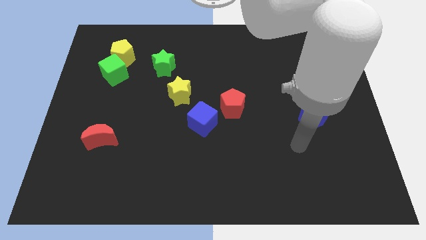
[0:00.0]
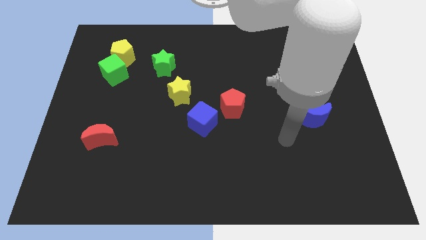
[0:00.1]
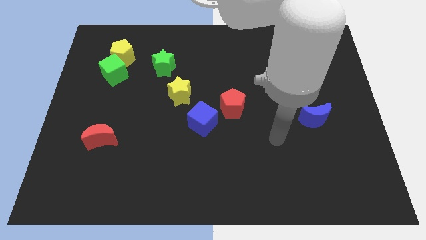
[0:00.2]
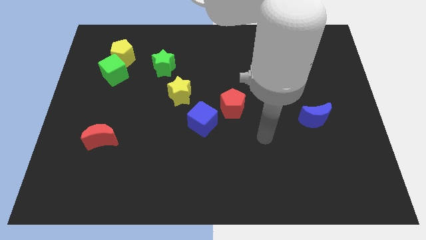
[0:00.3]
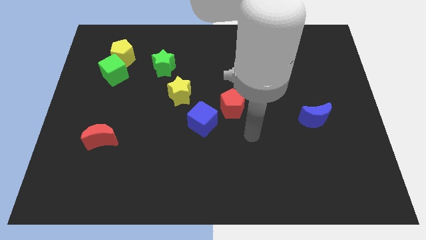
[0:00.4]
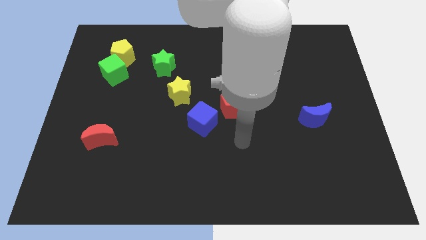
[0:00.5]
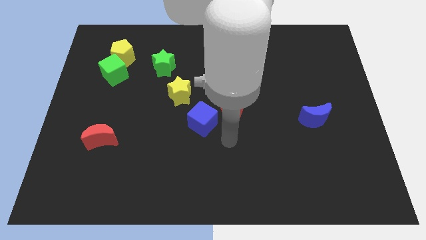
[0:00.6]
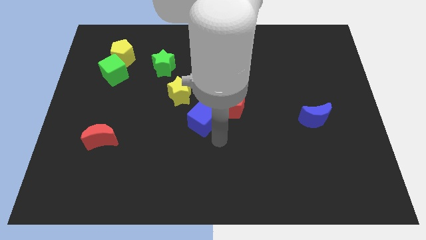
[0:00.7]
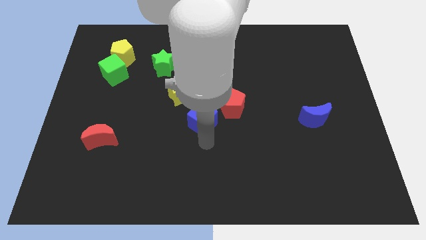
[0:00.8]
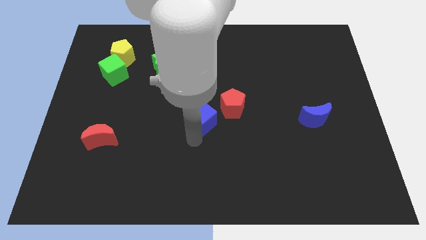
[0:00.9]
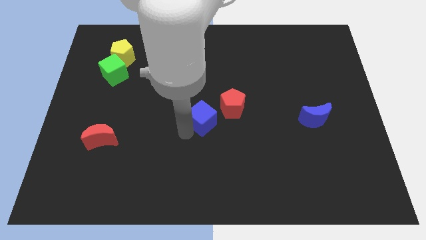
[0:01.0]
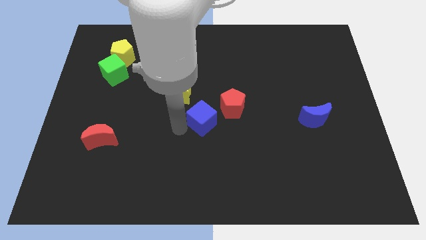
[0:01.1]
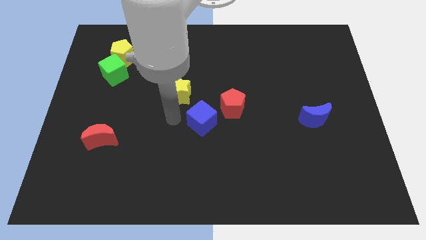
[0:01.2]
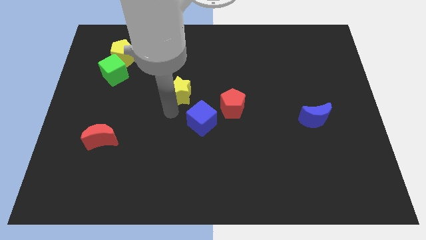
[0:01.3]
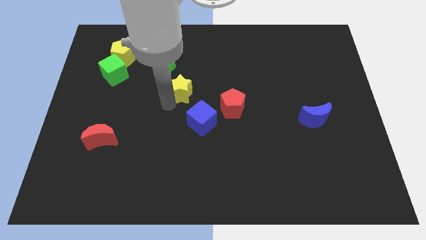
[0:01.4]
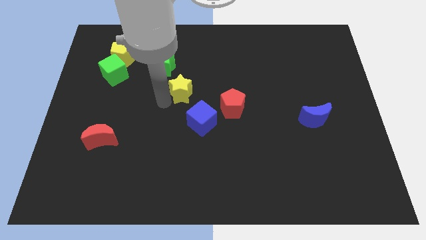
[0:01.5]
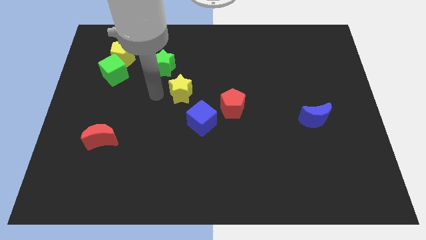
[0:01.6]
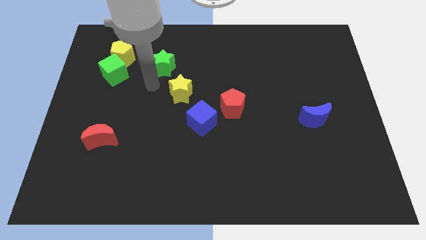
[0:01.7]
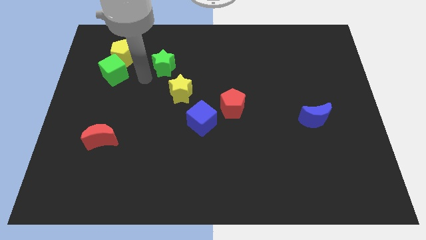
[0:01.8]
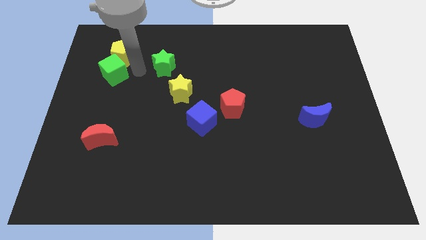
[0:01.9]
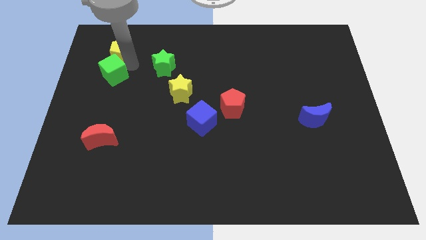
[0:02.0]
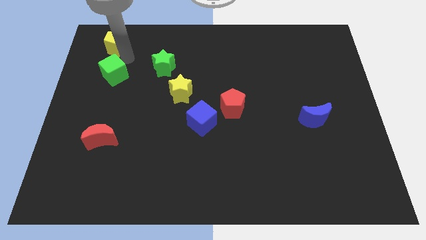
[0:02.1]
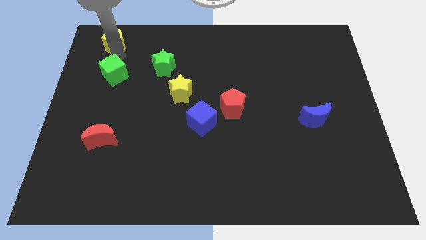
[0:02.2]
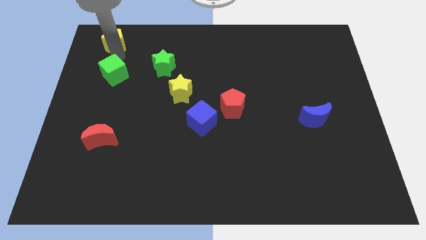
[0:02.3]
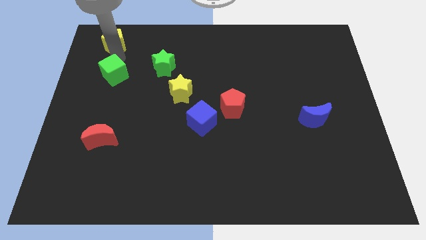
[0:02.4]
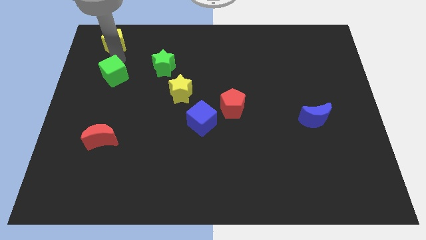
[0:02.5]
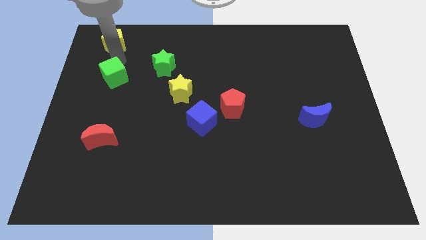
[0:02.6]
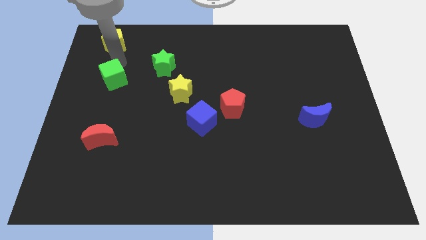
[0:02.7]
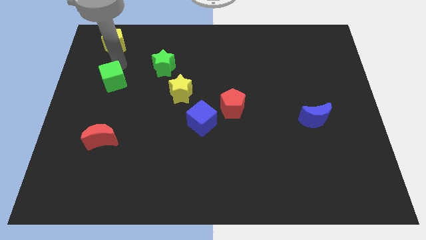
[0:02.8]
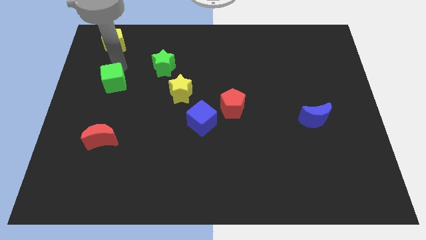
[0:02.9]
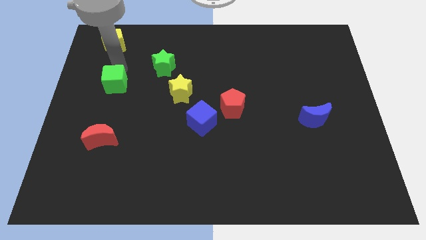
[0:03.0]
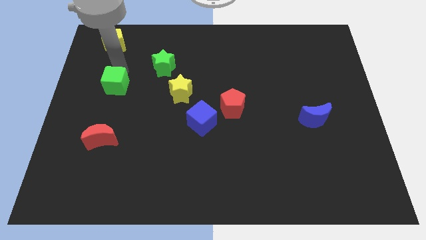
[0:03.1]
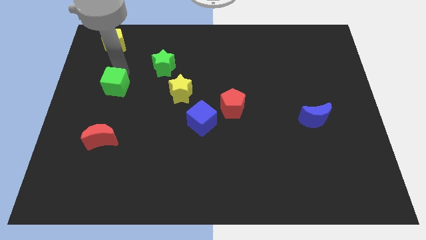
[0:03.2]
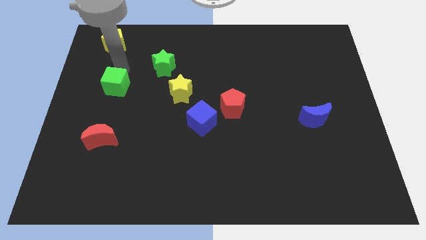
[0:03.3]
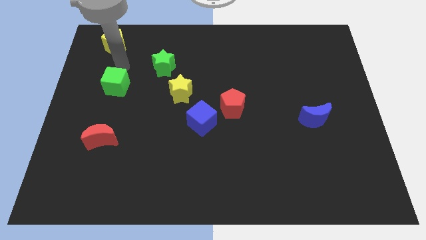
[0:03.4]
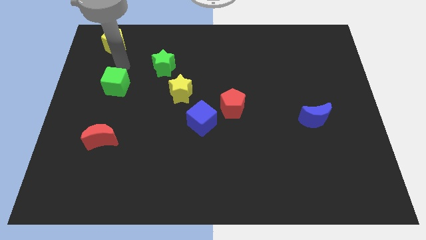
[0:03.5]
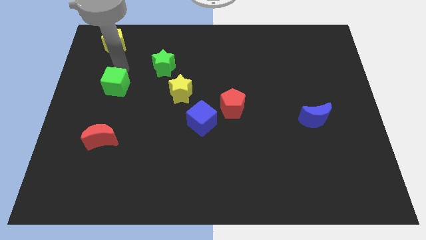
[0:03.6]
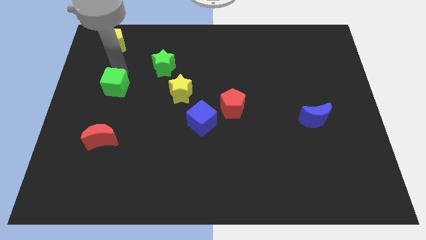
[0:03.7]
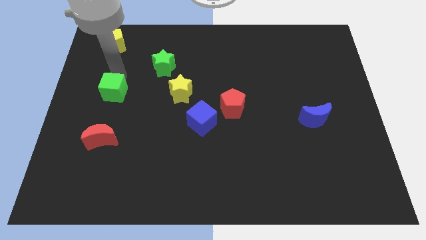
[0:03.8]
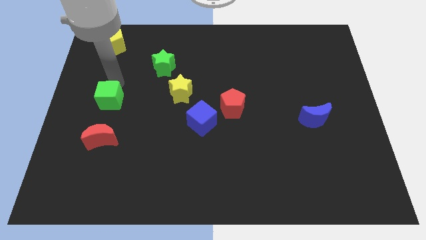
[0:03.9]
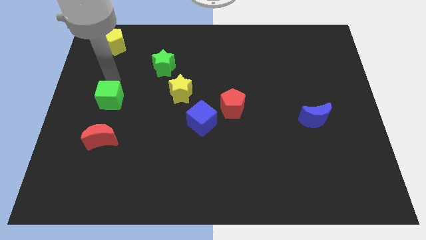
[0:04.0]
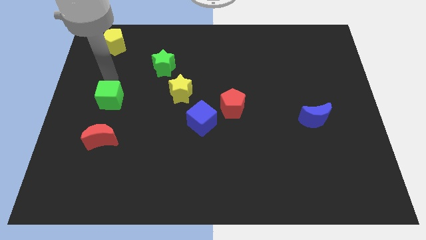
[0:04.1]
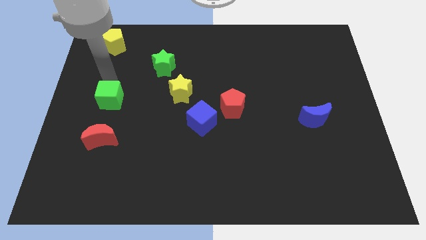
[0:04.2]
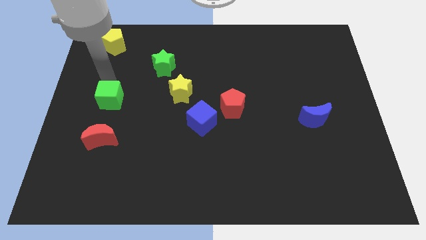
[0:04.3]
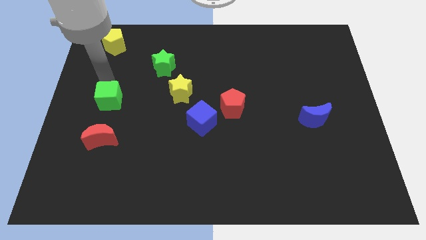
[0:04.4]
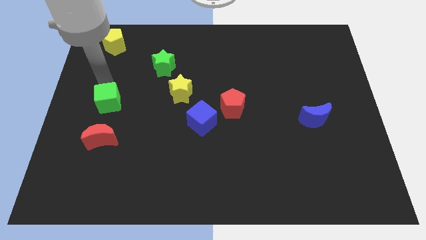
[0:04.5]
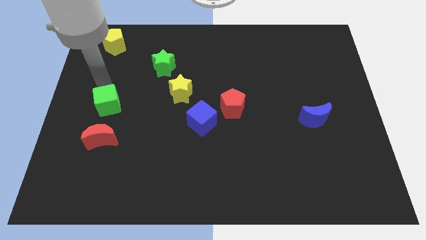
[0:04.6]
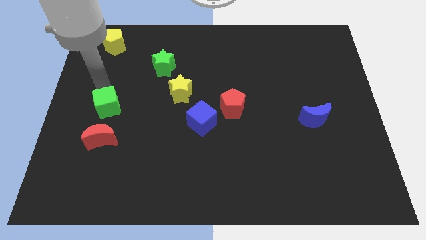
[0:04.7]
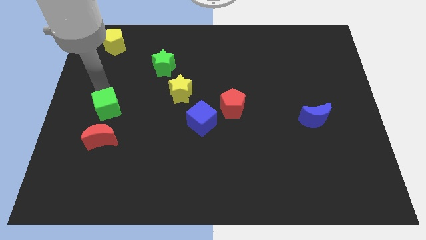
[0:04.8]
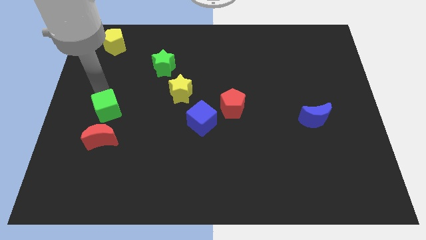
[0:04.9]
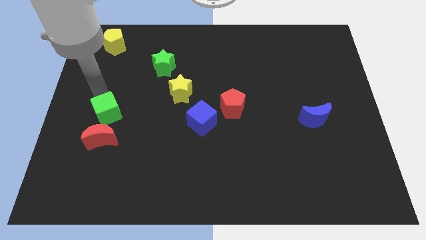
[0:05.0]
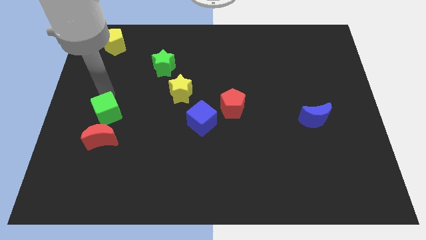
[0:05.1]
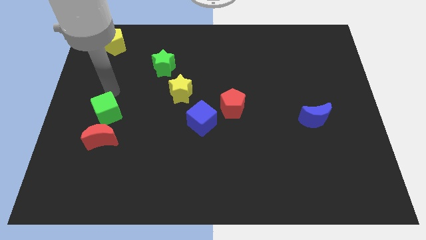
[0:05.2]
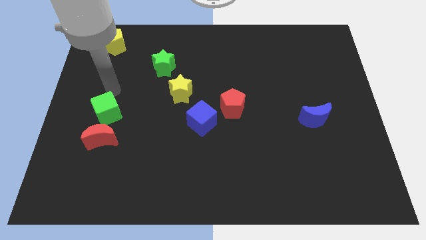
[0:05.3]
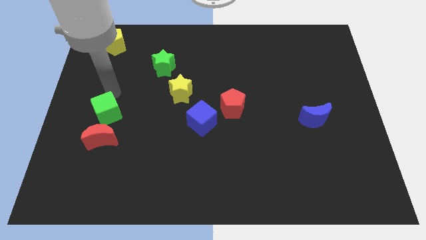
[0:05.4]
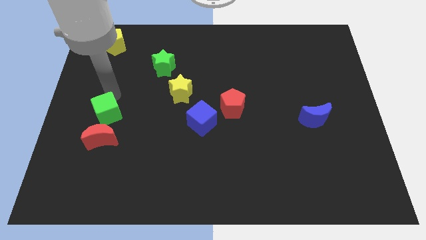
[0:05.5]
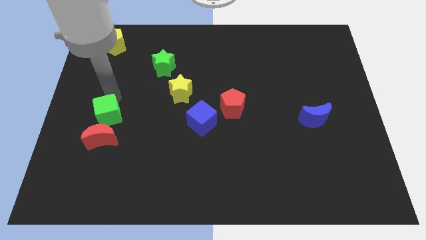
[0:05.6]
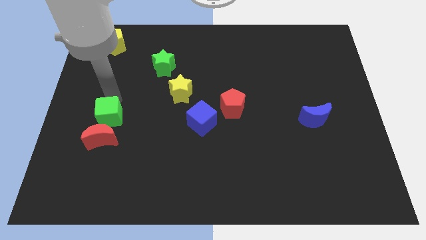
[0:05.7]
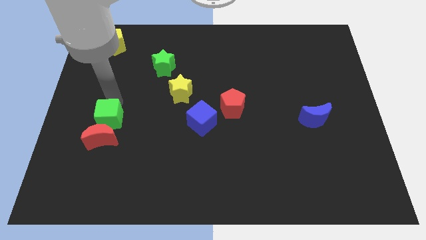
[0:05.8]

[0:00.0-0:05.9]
move the green cube towards the red moon
